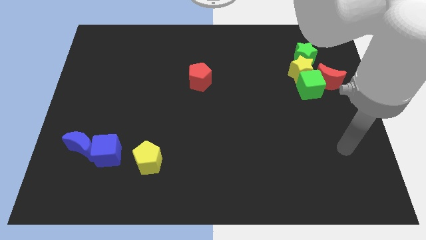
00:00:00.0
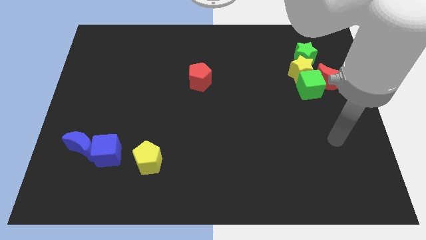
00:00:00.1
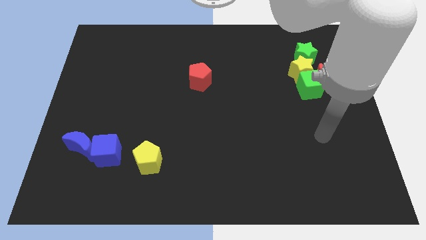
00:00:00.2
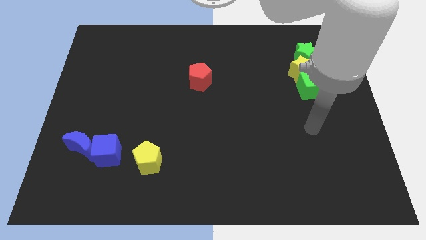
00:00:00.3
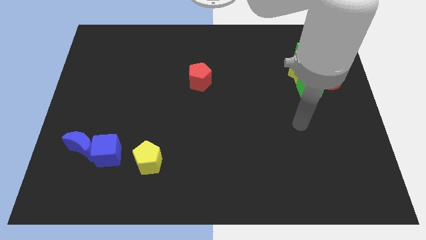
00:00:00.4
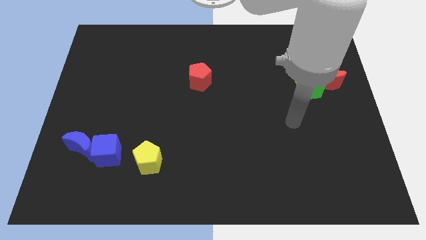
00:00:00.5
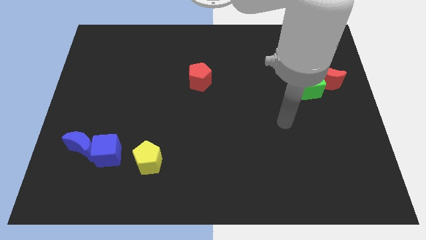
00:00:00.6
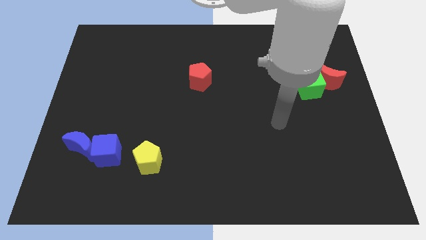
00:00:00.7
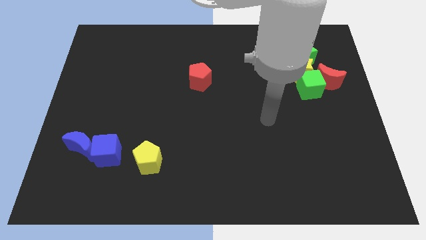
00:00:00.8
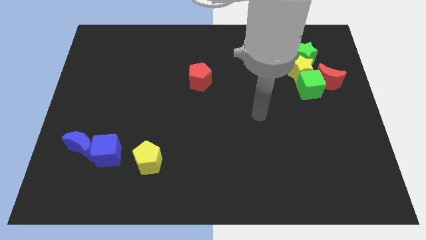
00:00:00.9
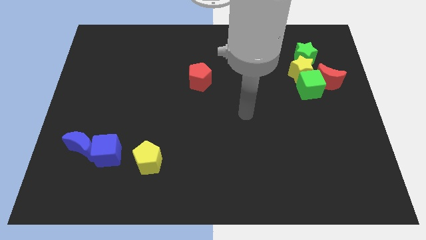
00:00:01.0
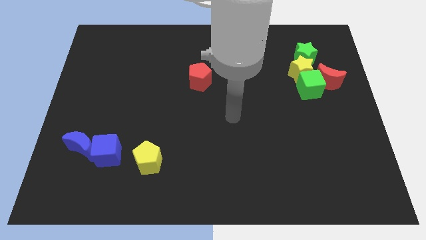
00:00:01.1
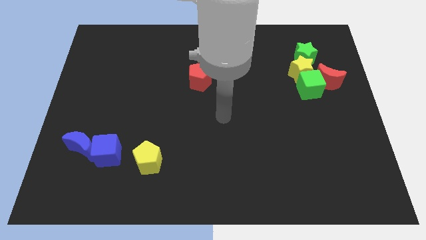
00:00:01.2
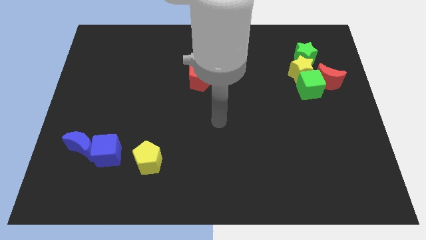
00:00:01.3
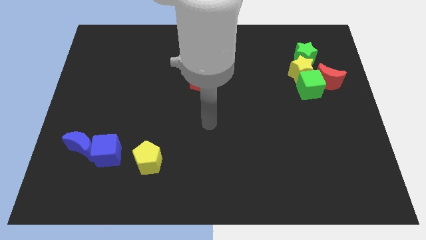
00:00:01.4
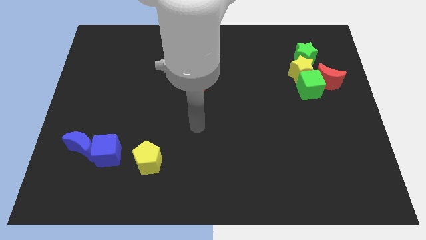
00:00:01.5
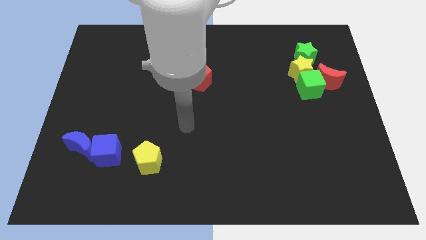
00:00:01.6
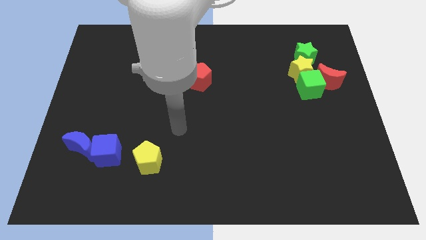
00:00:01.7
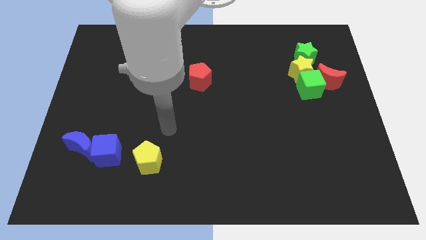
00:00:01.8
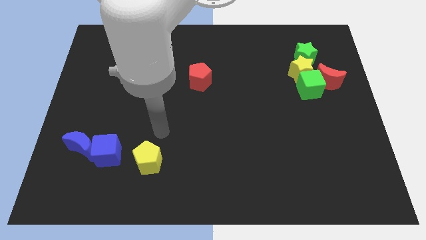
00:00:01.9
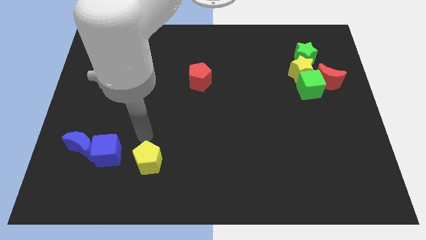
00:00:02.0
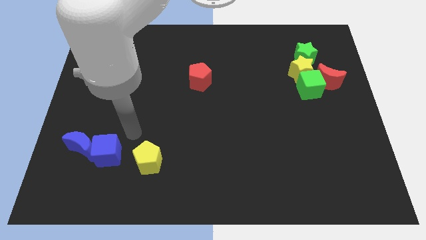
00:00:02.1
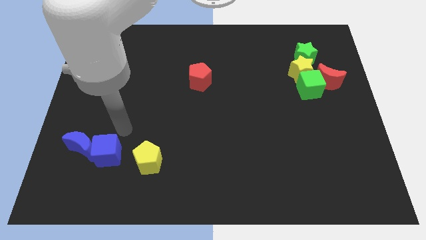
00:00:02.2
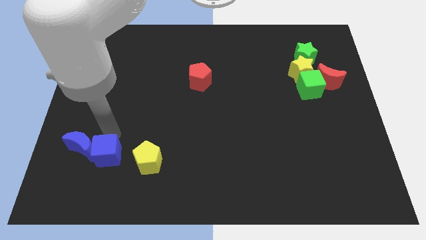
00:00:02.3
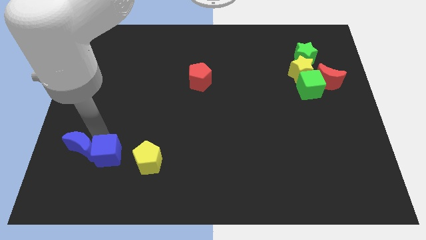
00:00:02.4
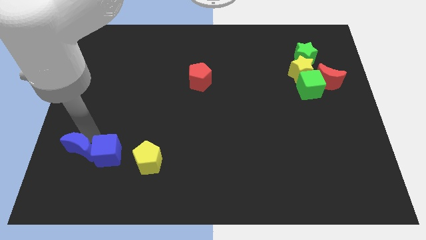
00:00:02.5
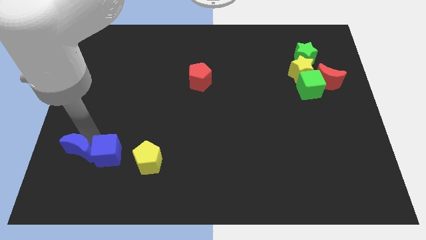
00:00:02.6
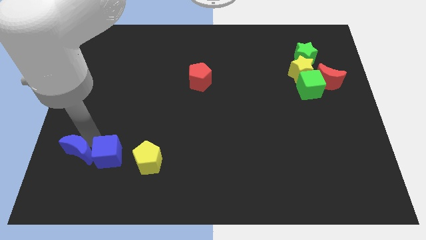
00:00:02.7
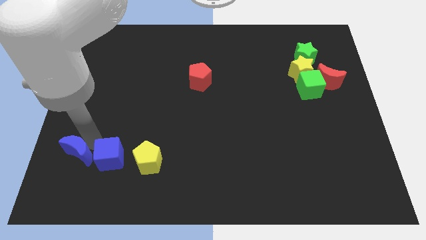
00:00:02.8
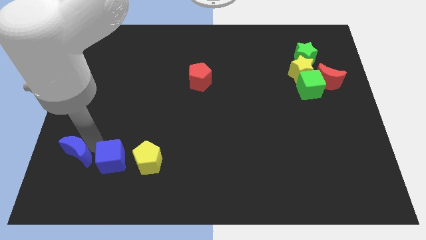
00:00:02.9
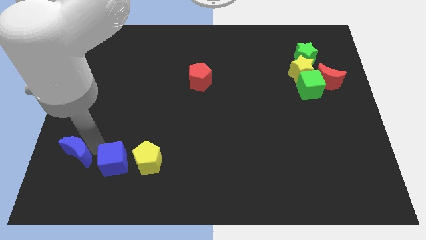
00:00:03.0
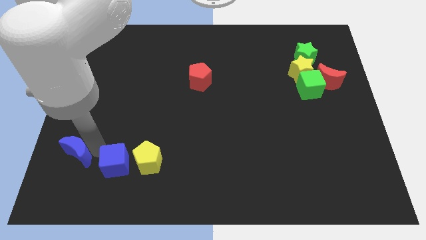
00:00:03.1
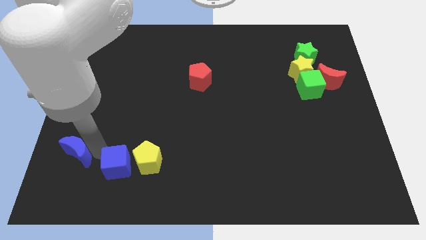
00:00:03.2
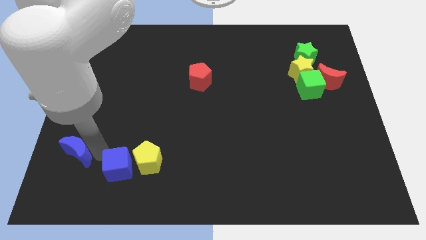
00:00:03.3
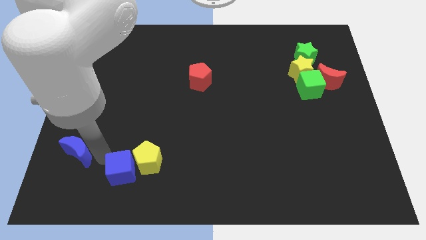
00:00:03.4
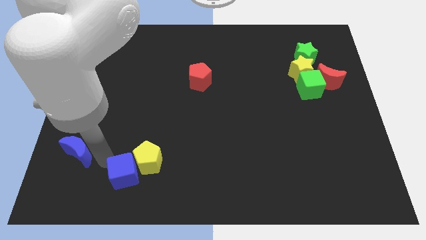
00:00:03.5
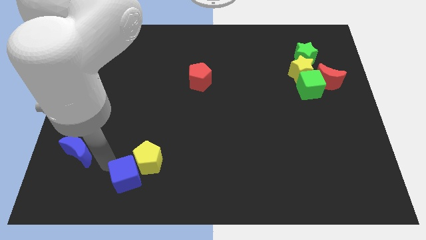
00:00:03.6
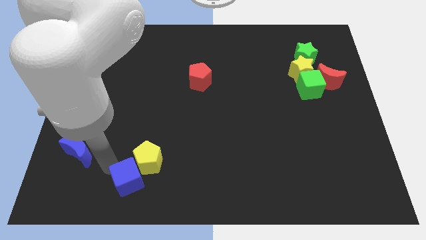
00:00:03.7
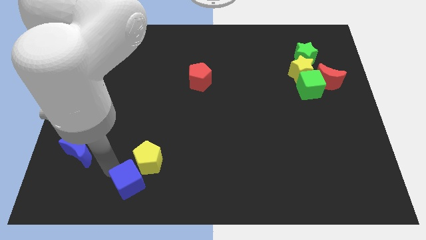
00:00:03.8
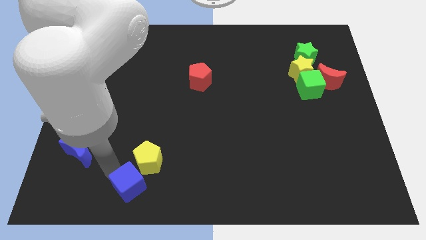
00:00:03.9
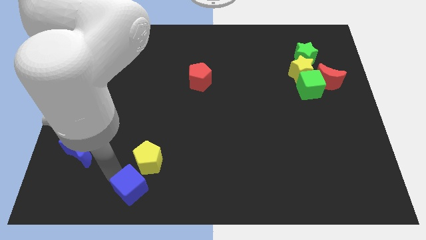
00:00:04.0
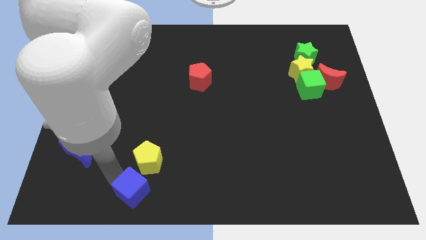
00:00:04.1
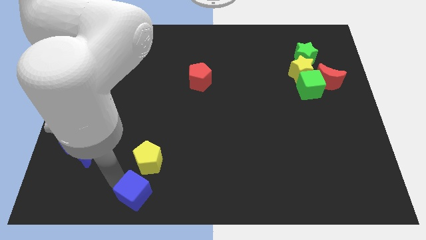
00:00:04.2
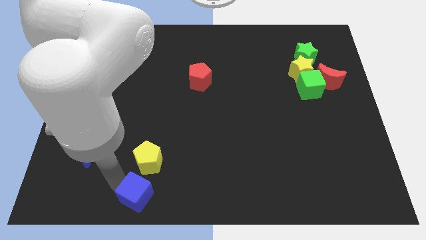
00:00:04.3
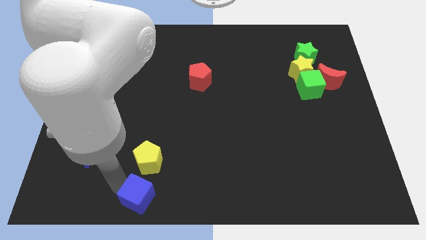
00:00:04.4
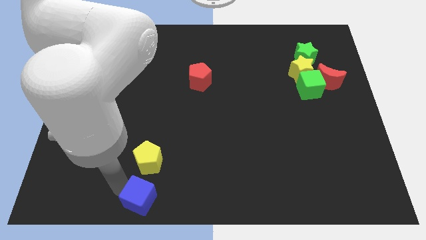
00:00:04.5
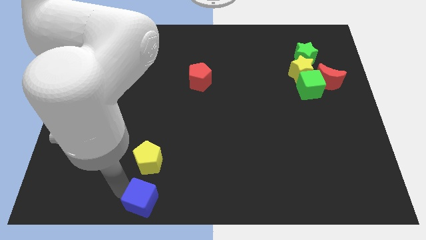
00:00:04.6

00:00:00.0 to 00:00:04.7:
push the blue cube to the bottom side

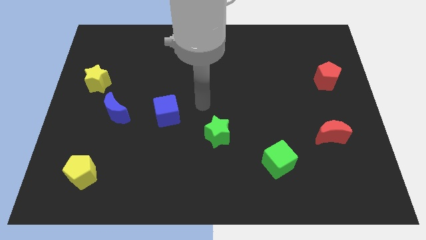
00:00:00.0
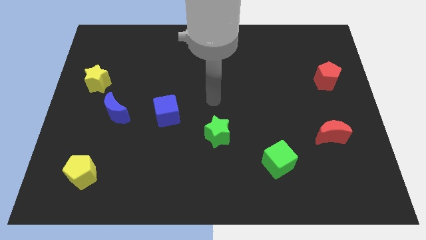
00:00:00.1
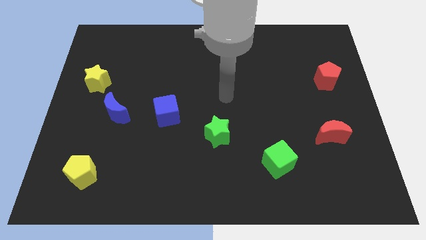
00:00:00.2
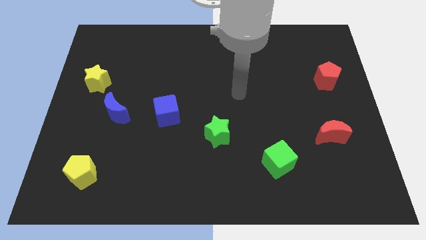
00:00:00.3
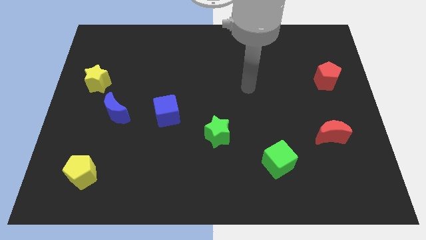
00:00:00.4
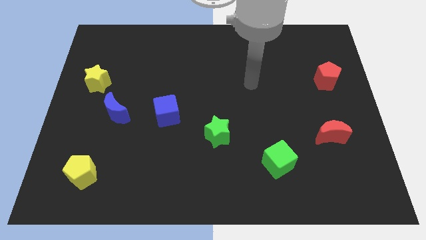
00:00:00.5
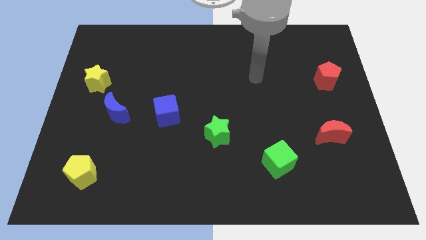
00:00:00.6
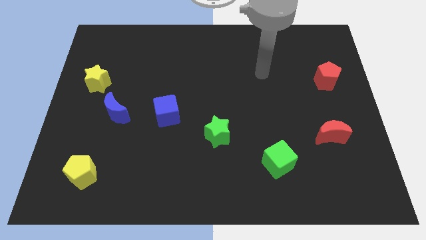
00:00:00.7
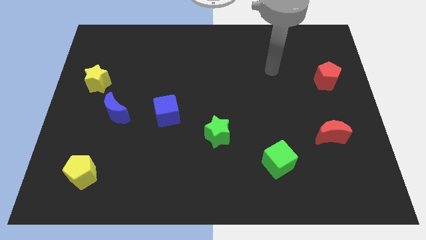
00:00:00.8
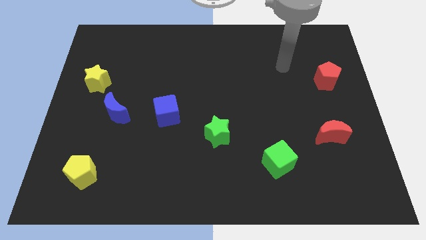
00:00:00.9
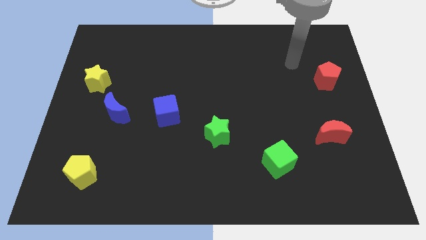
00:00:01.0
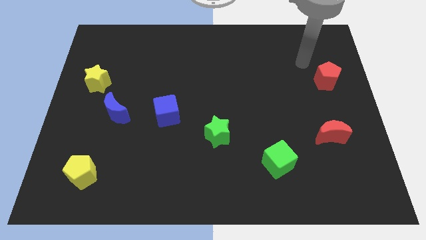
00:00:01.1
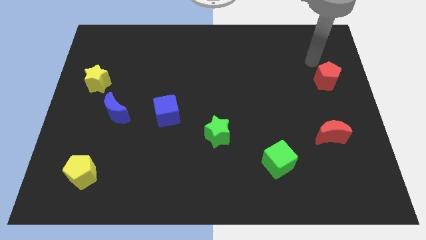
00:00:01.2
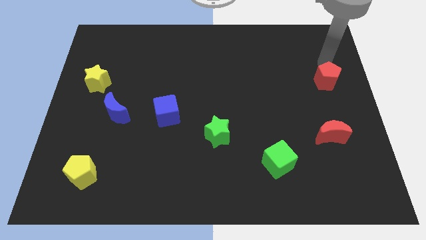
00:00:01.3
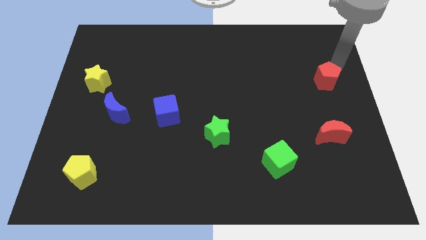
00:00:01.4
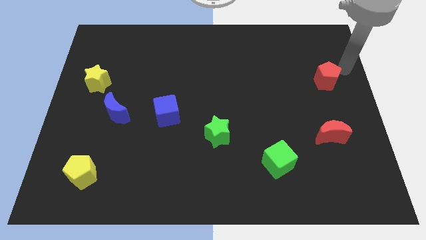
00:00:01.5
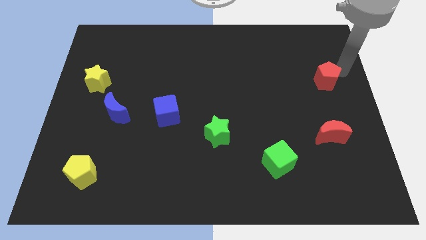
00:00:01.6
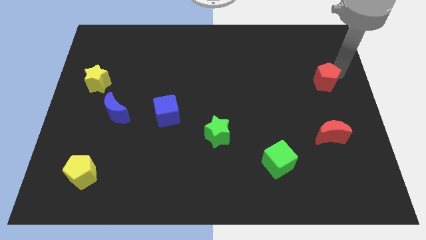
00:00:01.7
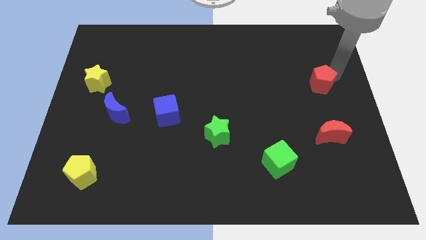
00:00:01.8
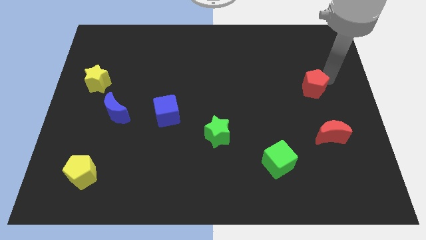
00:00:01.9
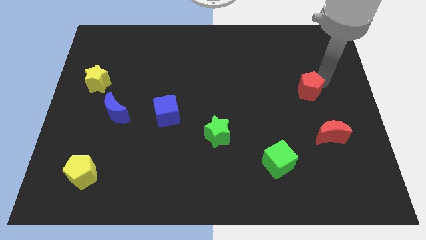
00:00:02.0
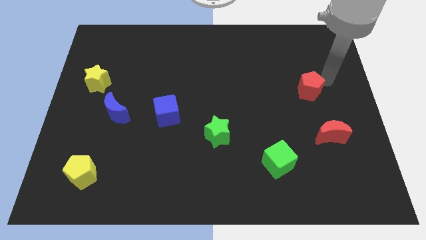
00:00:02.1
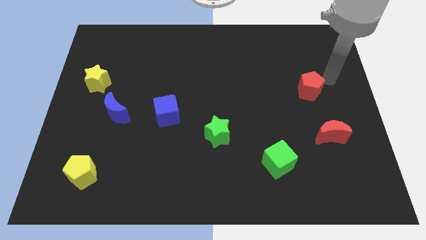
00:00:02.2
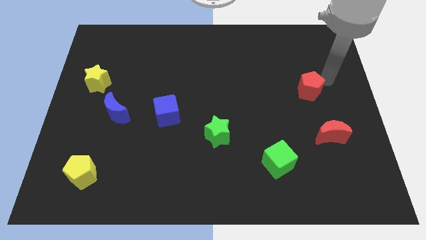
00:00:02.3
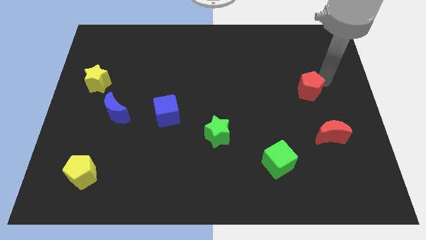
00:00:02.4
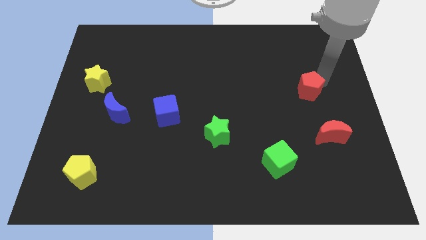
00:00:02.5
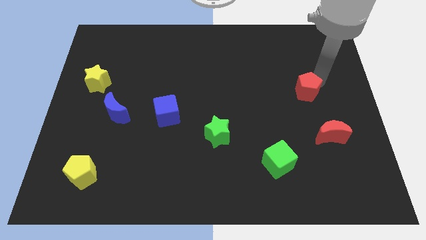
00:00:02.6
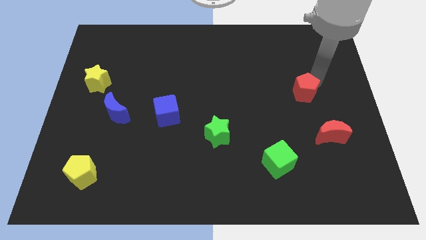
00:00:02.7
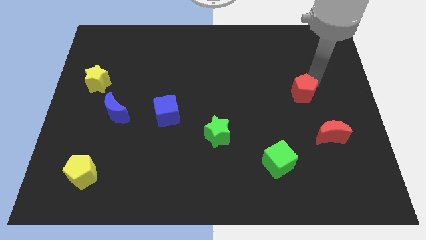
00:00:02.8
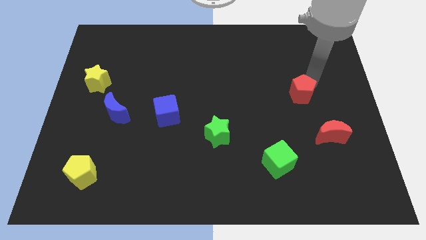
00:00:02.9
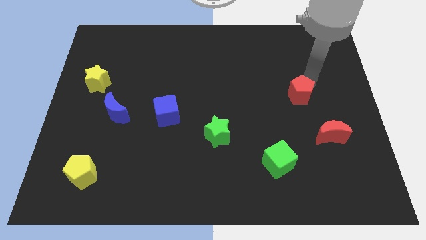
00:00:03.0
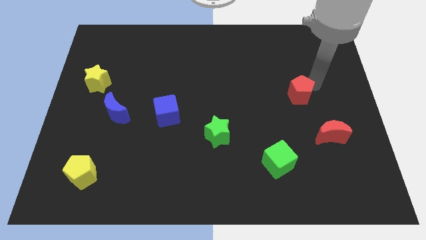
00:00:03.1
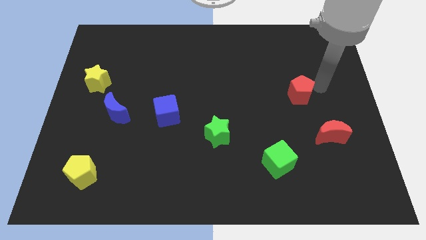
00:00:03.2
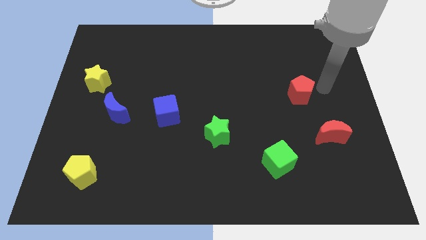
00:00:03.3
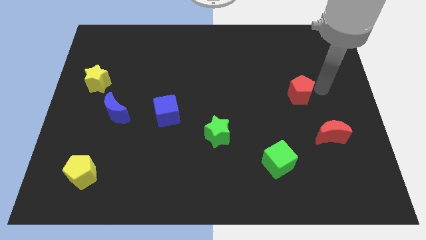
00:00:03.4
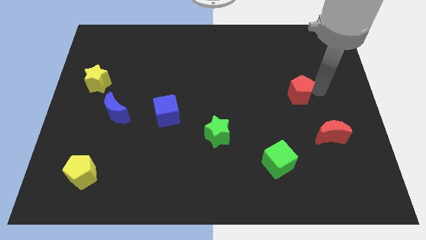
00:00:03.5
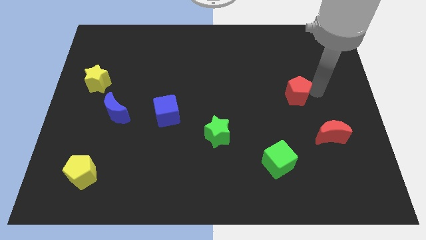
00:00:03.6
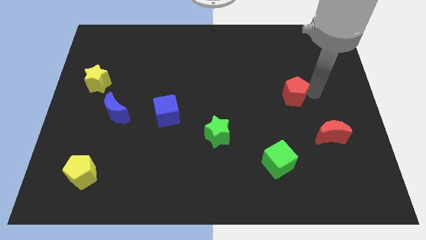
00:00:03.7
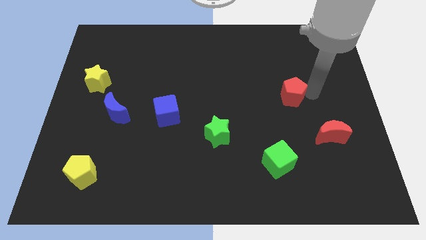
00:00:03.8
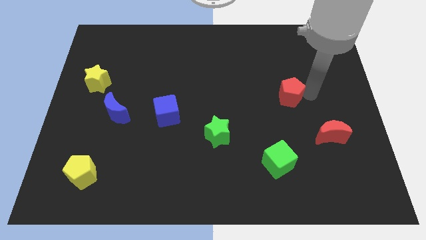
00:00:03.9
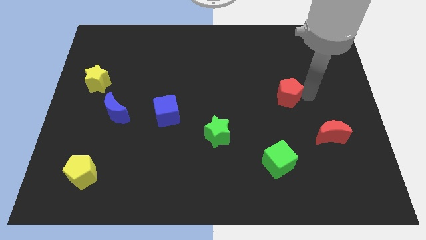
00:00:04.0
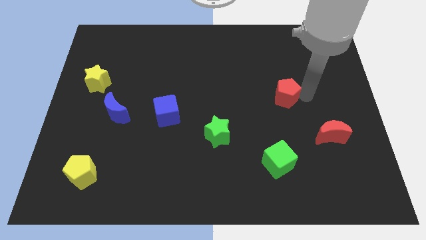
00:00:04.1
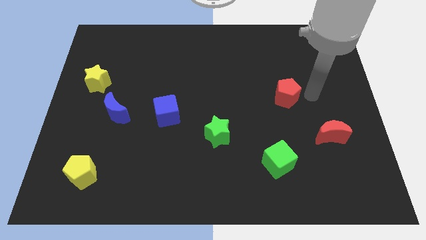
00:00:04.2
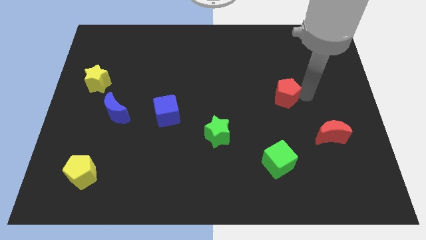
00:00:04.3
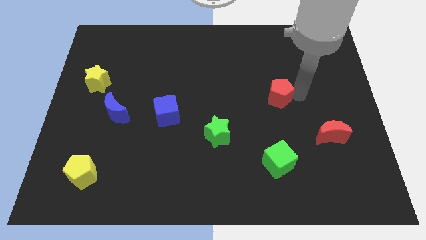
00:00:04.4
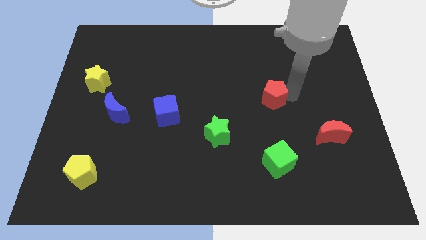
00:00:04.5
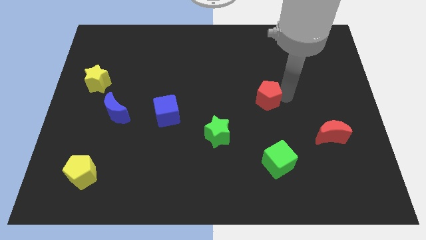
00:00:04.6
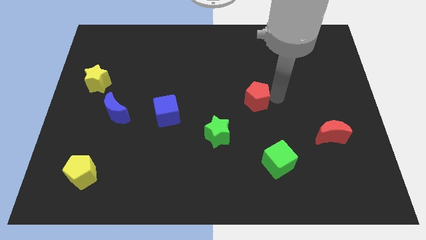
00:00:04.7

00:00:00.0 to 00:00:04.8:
put the red pentagon to the middle of the board
